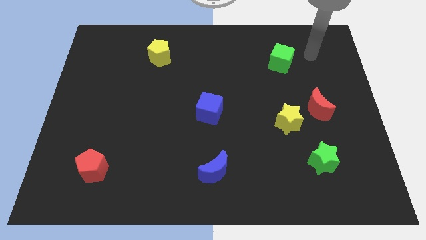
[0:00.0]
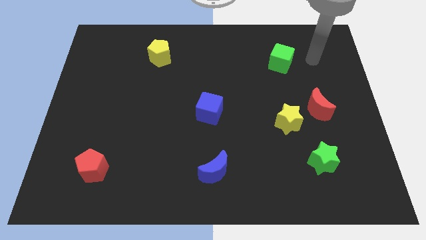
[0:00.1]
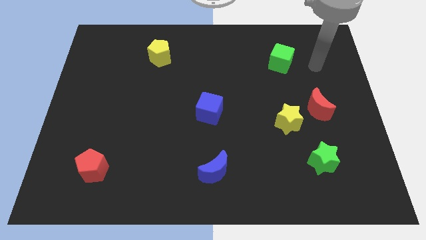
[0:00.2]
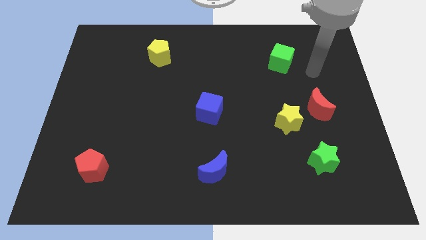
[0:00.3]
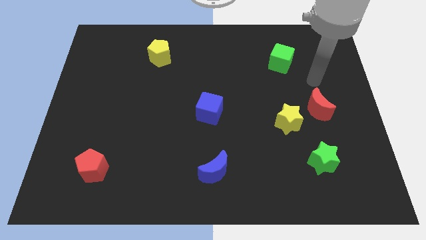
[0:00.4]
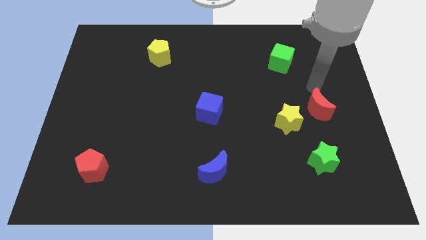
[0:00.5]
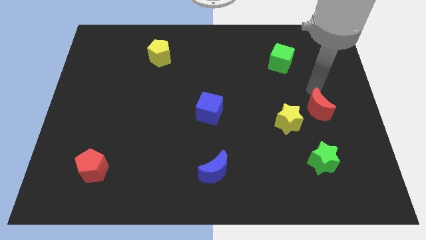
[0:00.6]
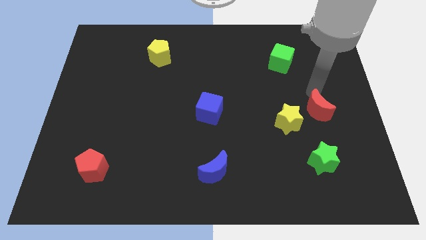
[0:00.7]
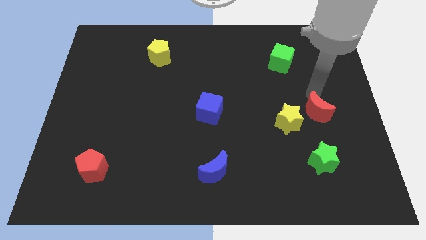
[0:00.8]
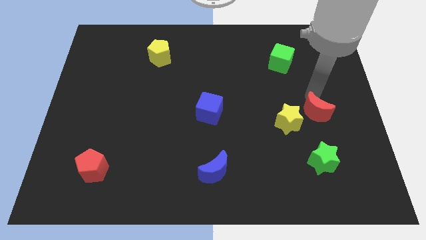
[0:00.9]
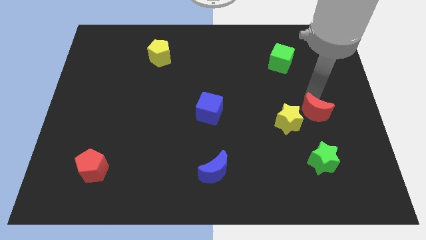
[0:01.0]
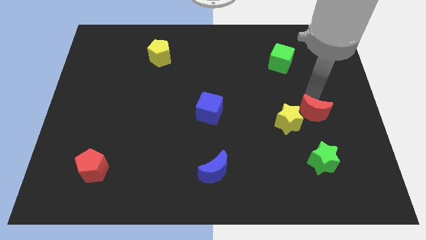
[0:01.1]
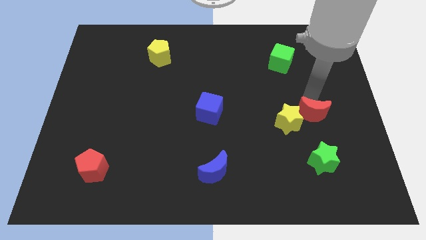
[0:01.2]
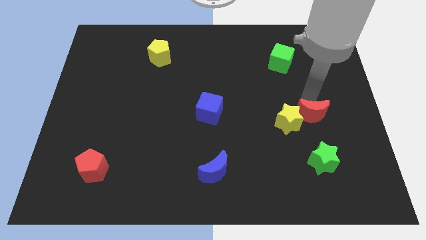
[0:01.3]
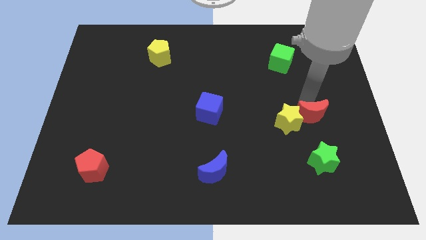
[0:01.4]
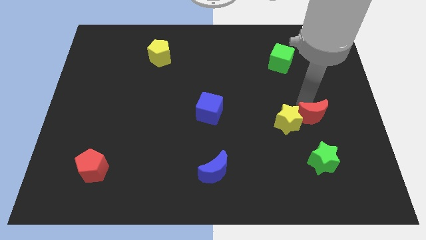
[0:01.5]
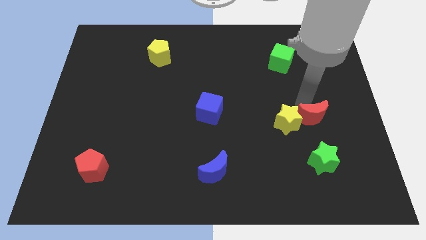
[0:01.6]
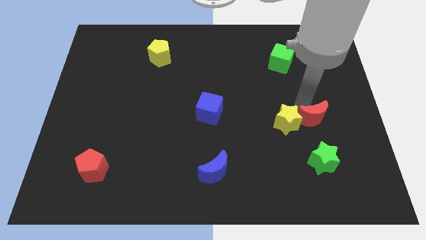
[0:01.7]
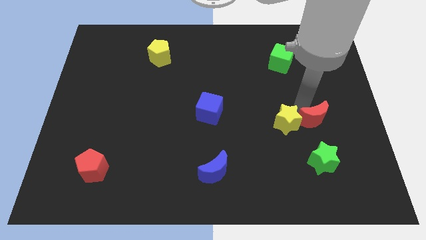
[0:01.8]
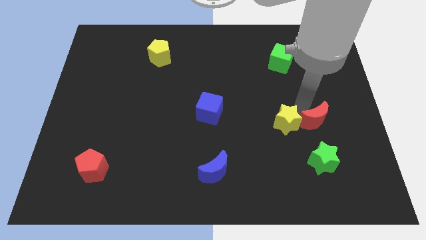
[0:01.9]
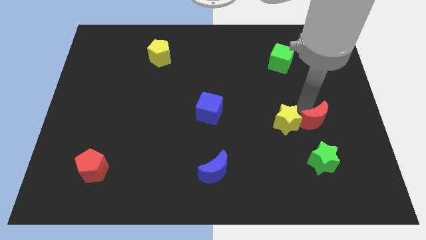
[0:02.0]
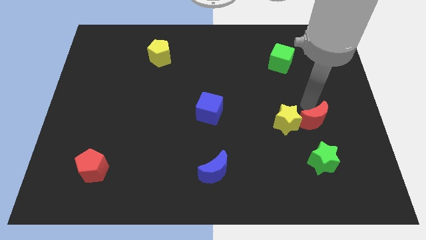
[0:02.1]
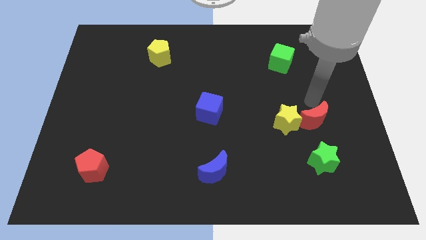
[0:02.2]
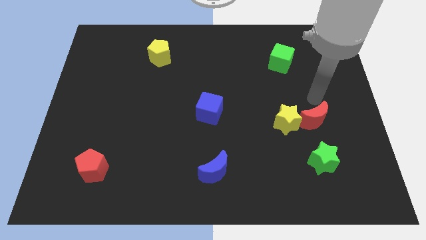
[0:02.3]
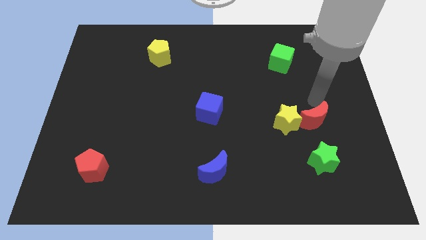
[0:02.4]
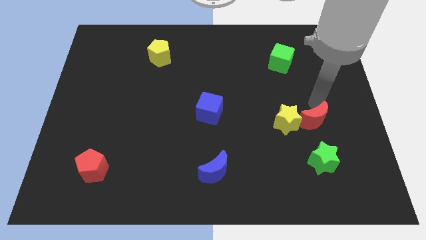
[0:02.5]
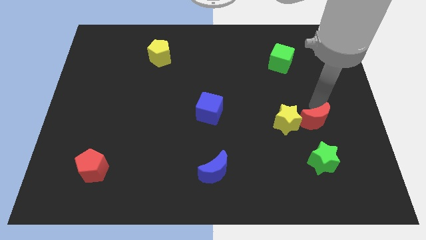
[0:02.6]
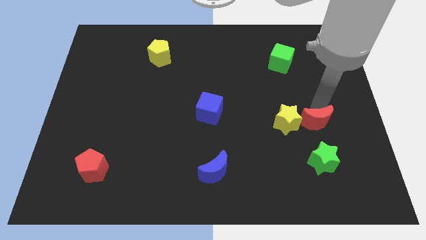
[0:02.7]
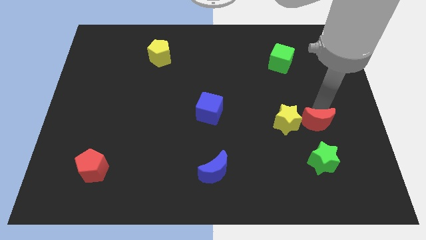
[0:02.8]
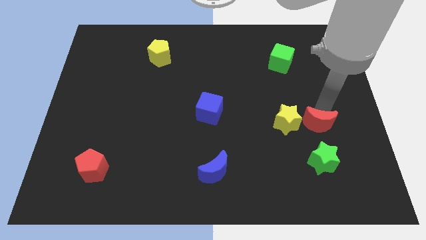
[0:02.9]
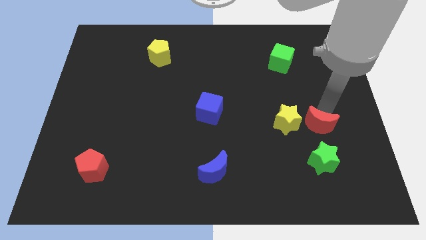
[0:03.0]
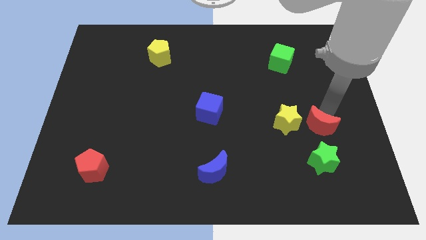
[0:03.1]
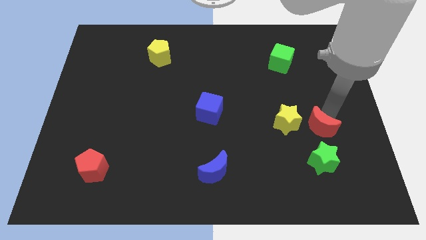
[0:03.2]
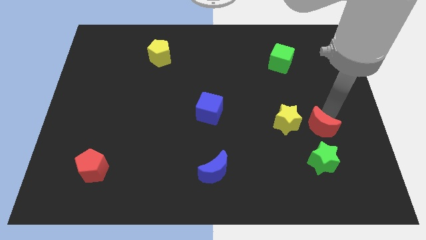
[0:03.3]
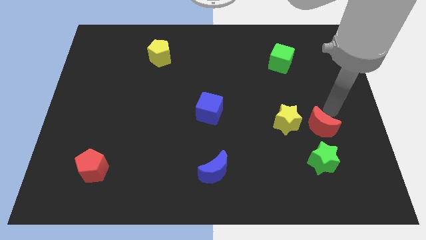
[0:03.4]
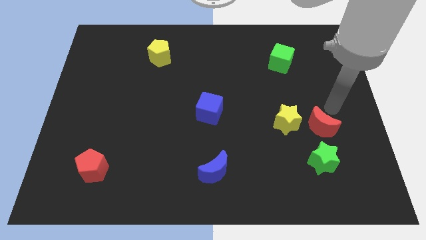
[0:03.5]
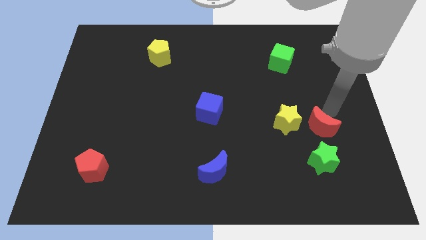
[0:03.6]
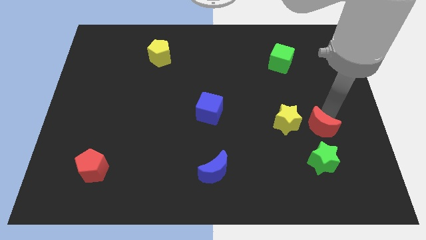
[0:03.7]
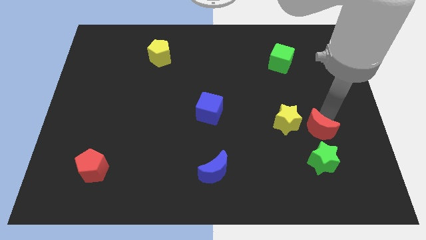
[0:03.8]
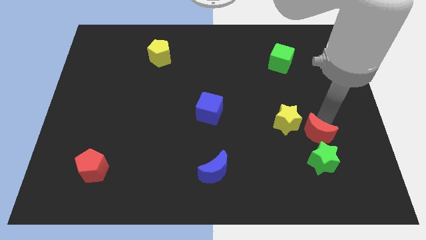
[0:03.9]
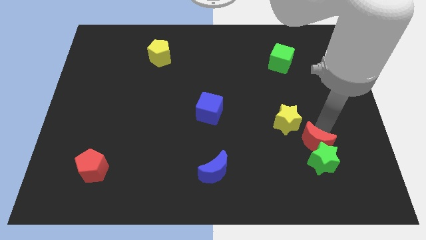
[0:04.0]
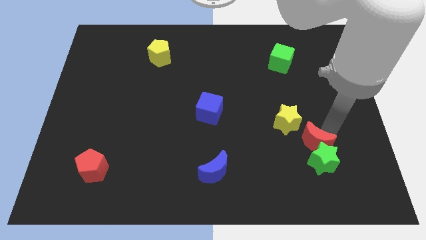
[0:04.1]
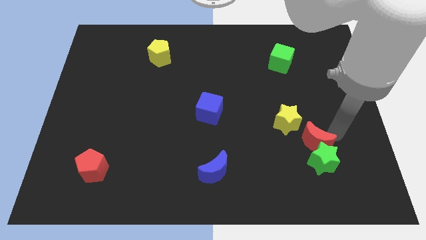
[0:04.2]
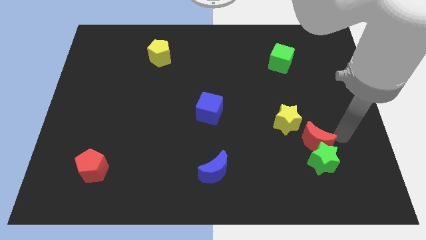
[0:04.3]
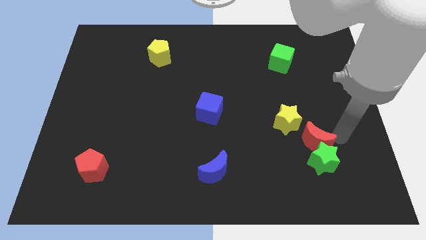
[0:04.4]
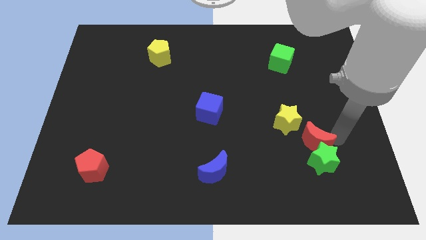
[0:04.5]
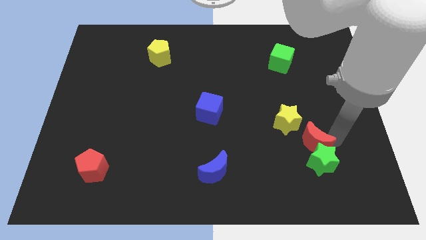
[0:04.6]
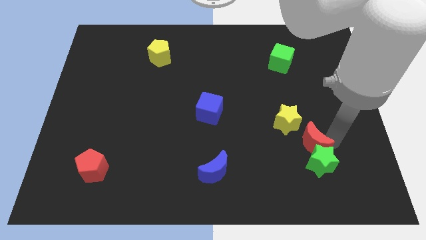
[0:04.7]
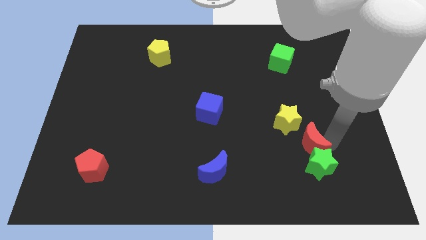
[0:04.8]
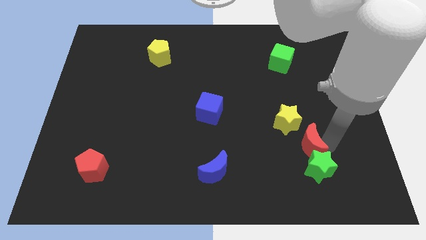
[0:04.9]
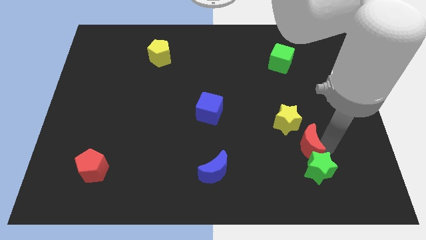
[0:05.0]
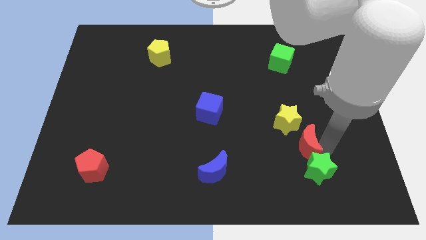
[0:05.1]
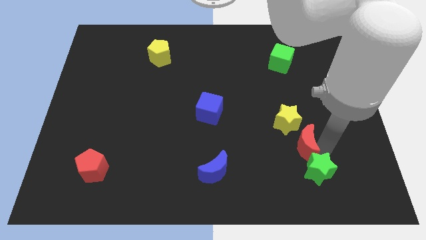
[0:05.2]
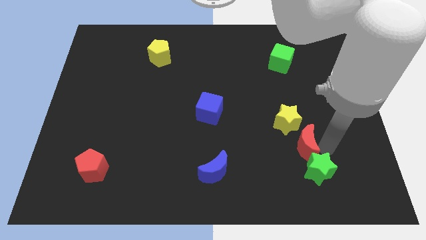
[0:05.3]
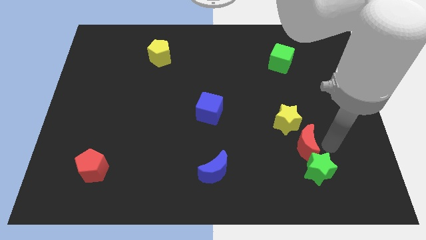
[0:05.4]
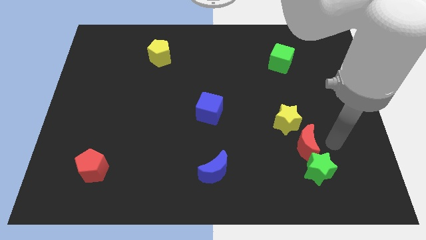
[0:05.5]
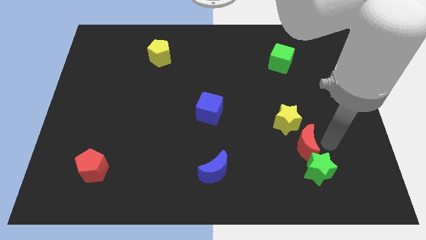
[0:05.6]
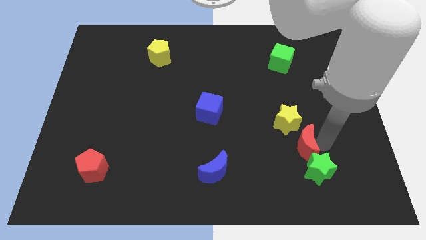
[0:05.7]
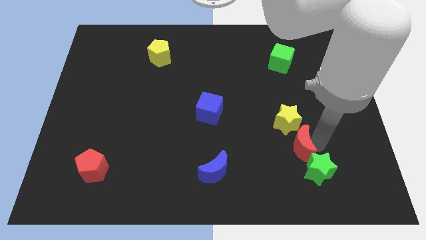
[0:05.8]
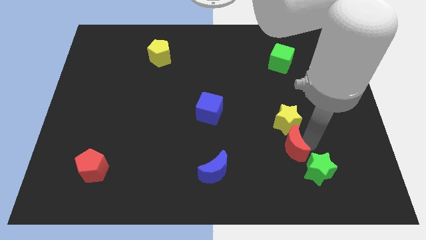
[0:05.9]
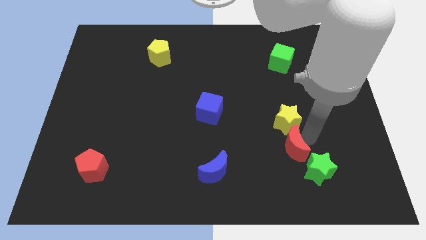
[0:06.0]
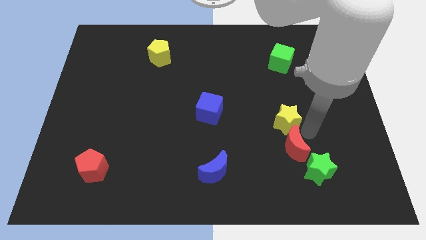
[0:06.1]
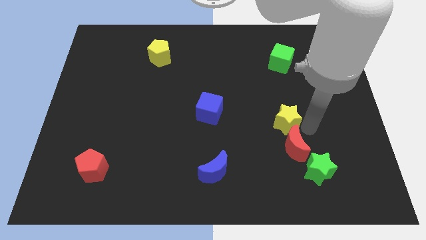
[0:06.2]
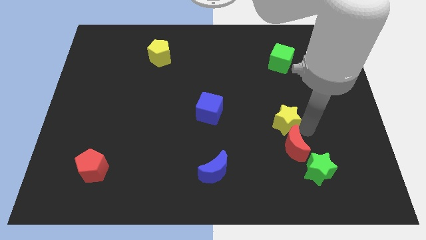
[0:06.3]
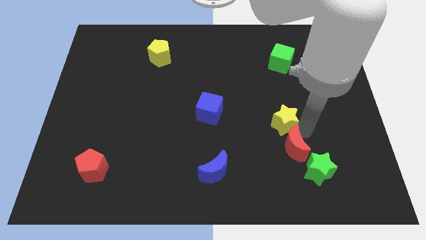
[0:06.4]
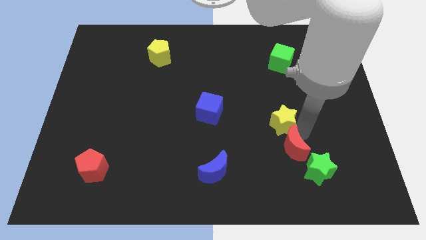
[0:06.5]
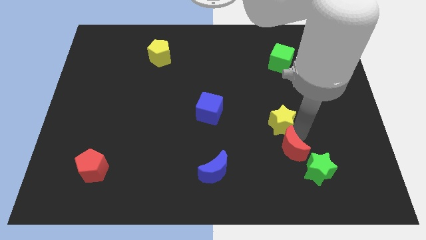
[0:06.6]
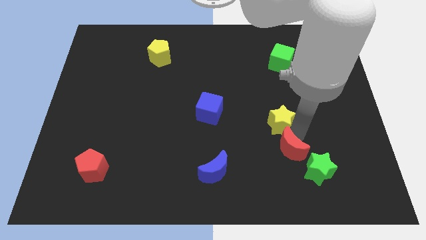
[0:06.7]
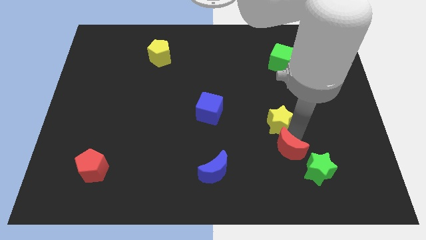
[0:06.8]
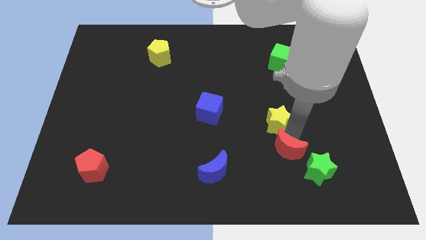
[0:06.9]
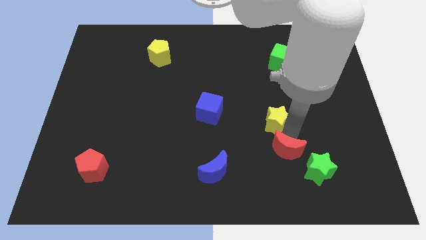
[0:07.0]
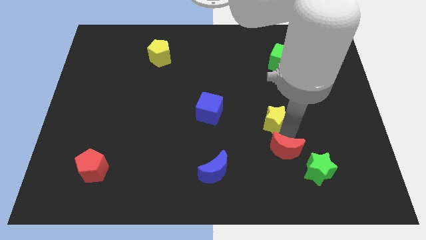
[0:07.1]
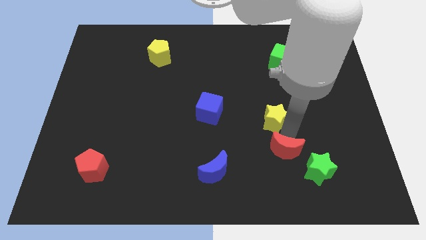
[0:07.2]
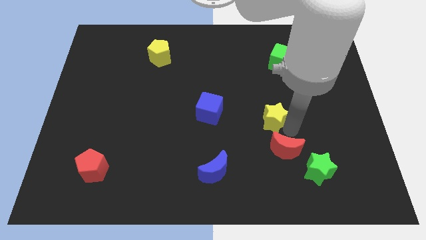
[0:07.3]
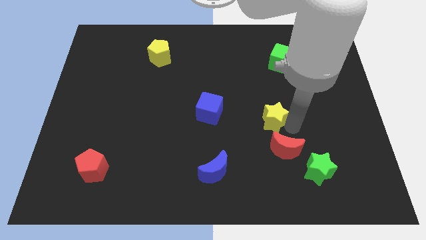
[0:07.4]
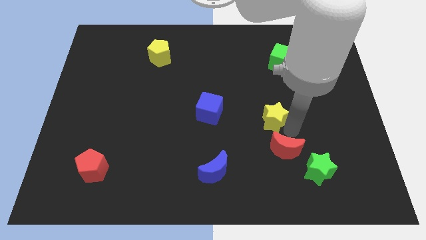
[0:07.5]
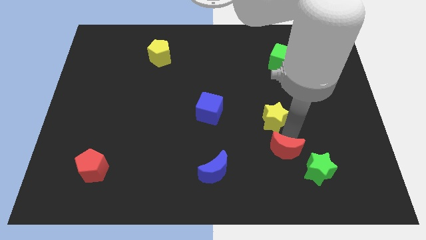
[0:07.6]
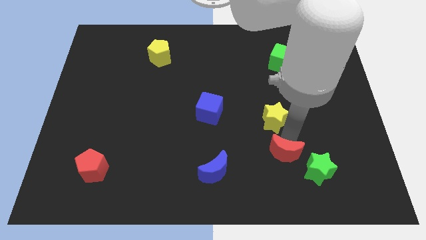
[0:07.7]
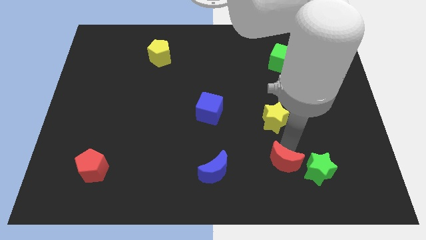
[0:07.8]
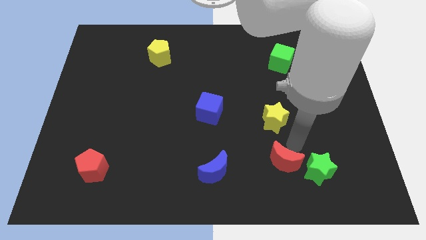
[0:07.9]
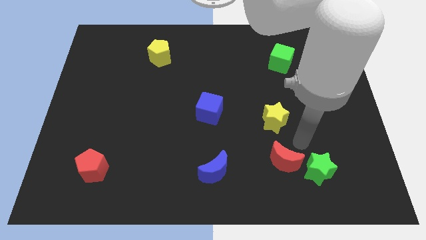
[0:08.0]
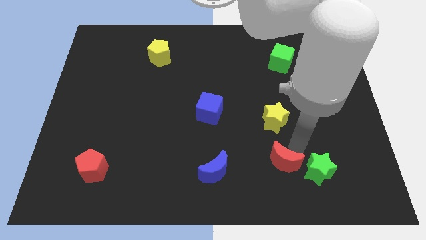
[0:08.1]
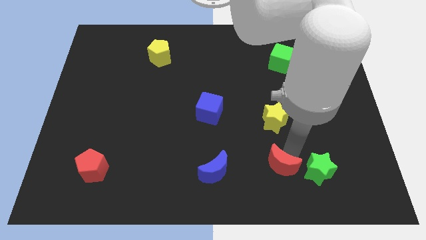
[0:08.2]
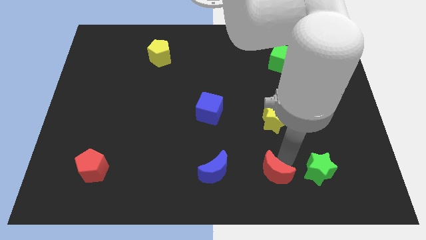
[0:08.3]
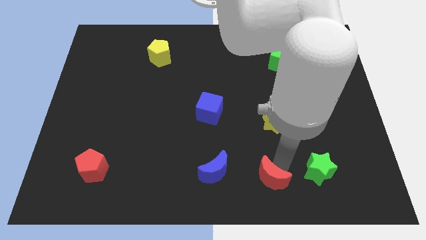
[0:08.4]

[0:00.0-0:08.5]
push the red moon to the bottom side
